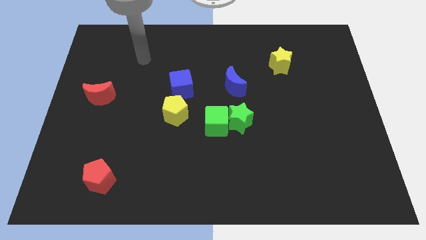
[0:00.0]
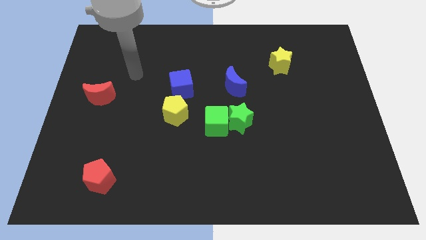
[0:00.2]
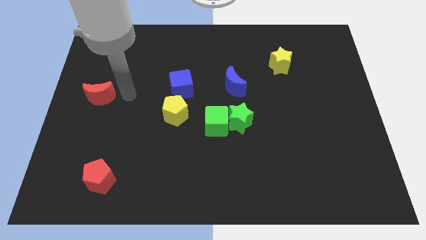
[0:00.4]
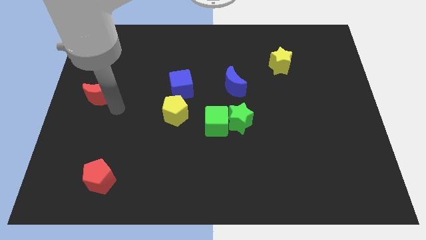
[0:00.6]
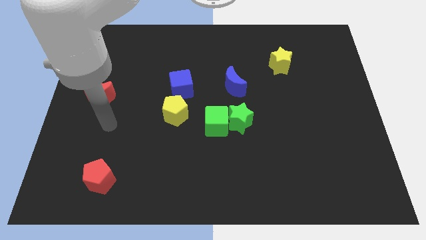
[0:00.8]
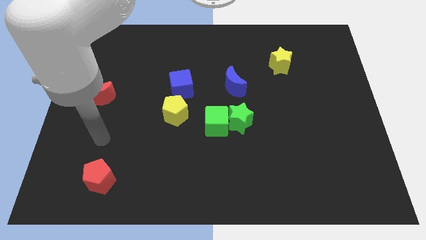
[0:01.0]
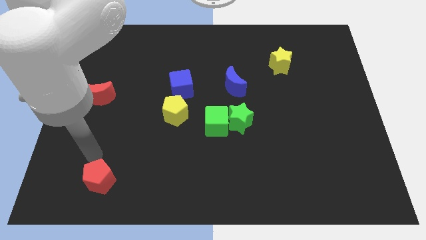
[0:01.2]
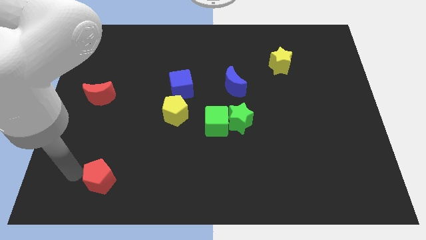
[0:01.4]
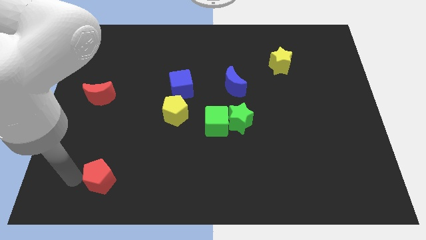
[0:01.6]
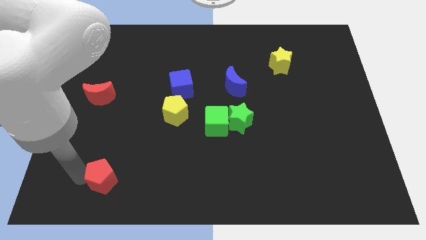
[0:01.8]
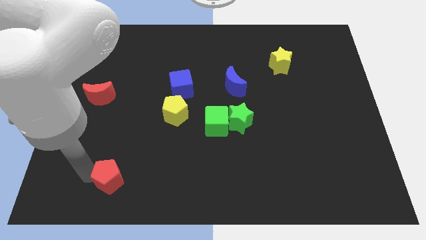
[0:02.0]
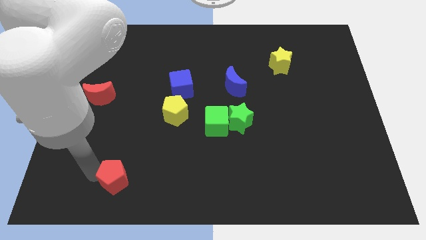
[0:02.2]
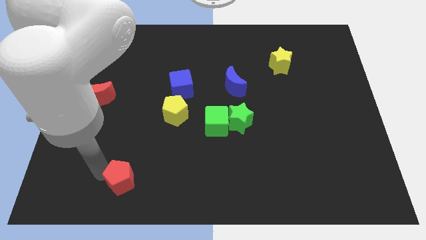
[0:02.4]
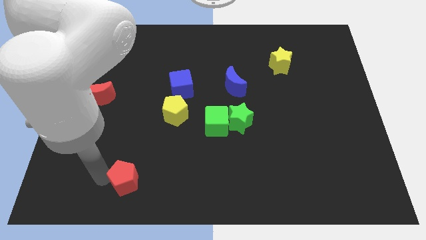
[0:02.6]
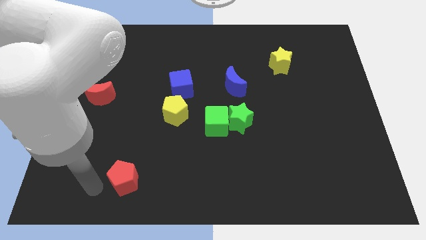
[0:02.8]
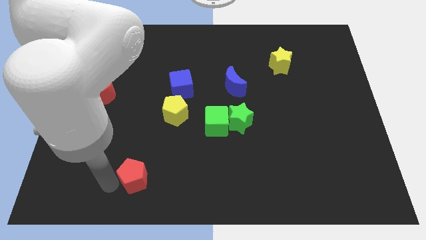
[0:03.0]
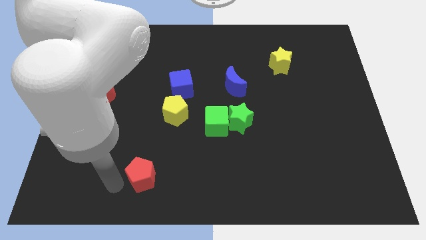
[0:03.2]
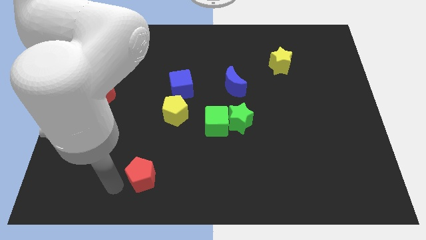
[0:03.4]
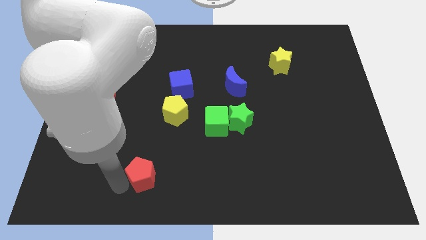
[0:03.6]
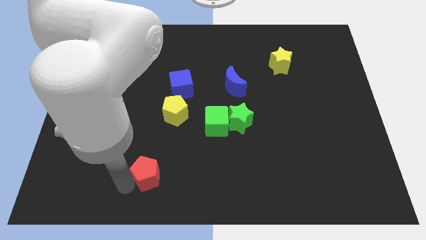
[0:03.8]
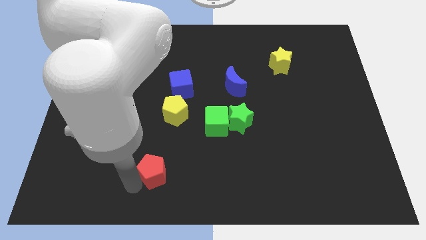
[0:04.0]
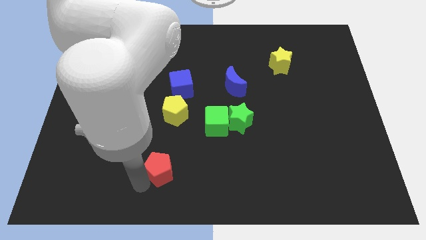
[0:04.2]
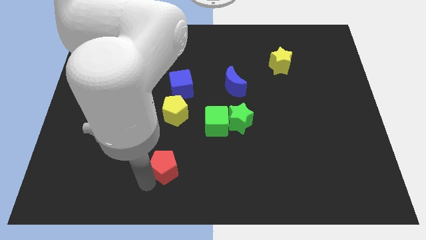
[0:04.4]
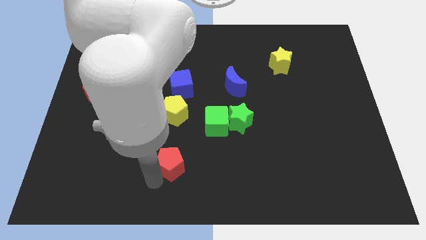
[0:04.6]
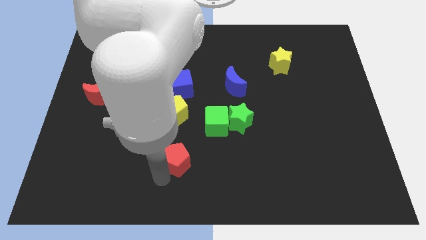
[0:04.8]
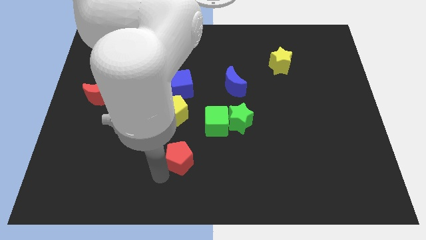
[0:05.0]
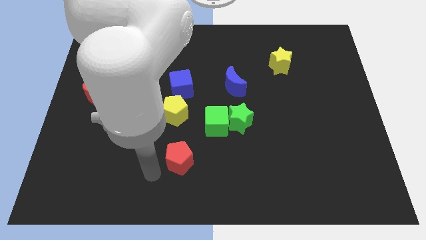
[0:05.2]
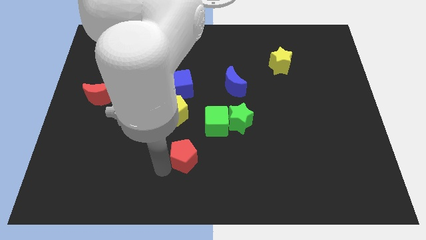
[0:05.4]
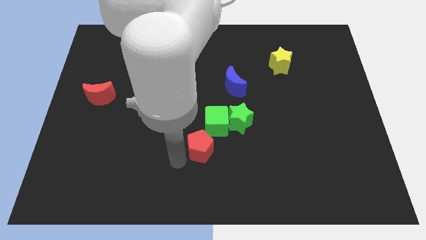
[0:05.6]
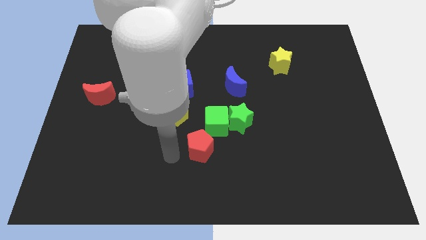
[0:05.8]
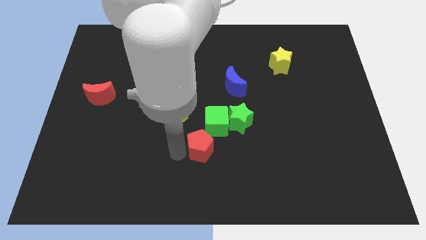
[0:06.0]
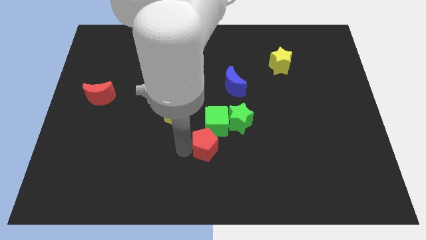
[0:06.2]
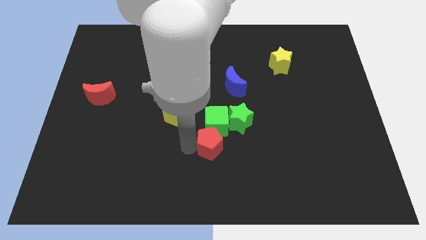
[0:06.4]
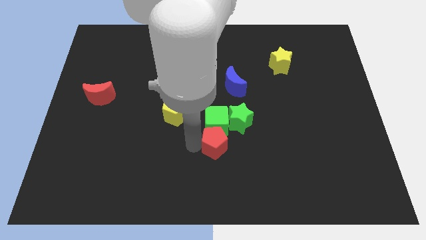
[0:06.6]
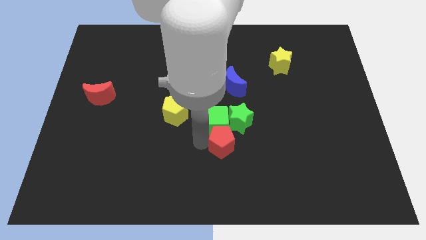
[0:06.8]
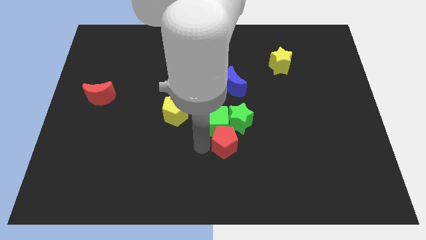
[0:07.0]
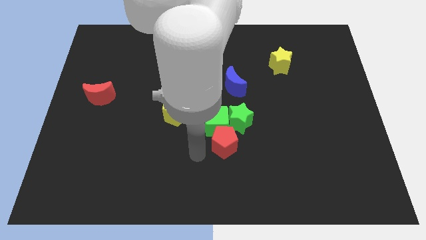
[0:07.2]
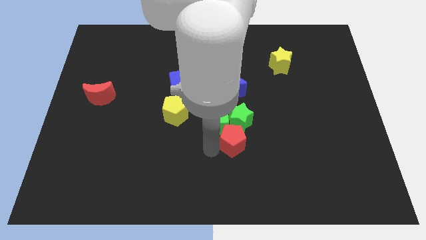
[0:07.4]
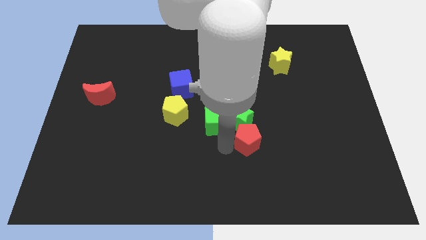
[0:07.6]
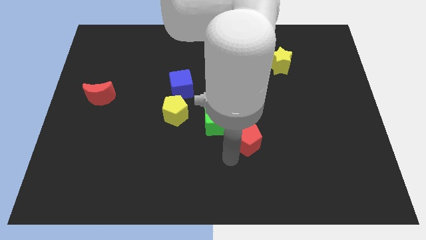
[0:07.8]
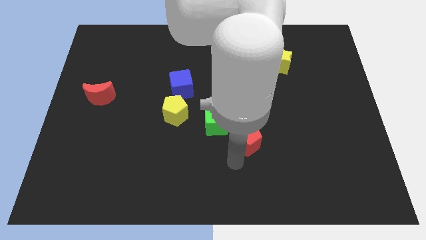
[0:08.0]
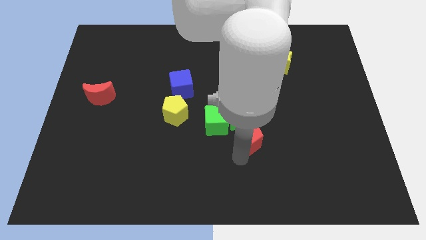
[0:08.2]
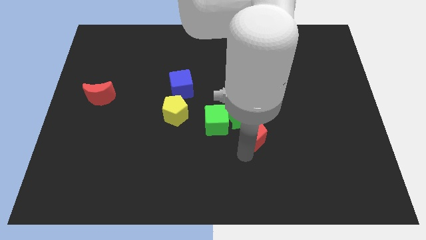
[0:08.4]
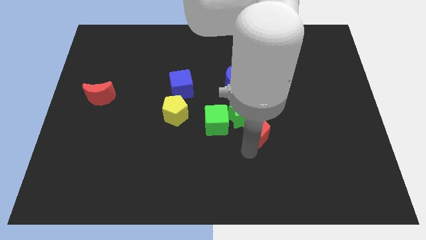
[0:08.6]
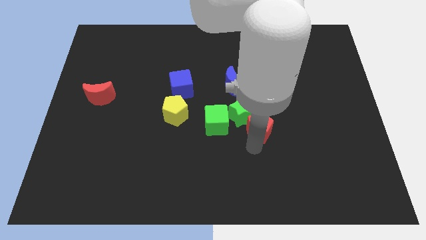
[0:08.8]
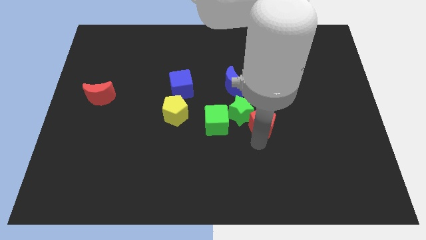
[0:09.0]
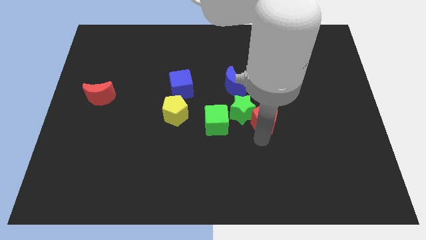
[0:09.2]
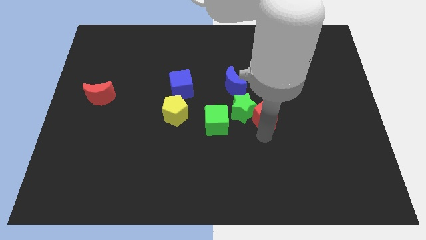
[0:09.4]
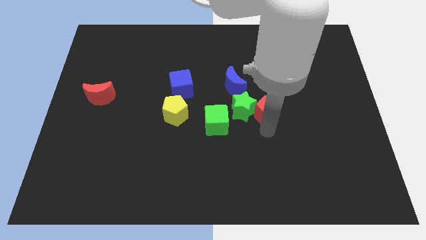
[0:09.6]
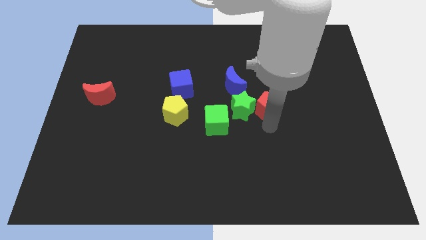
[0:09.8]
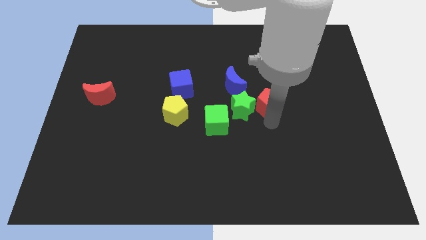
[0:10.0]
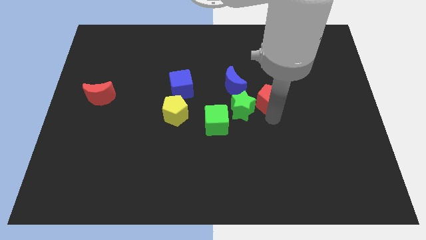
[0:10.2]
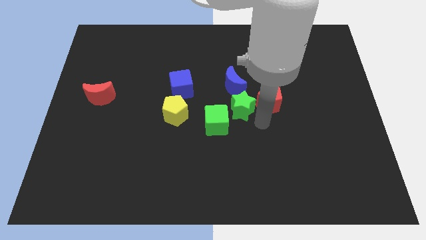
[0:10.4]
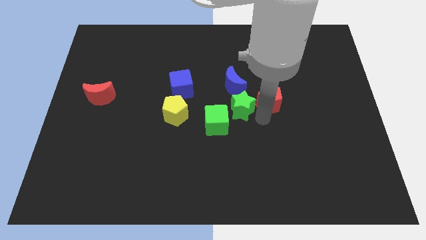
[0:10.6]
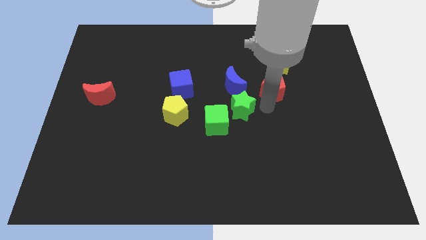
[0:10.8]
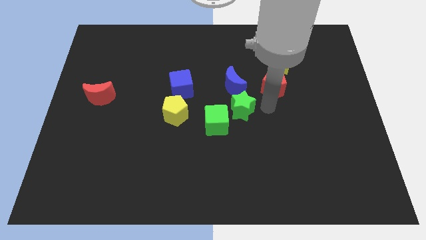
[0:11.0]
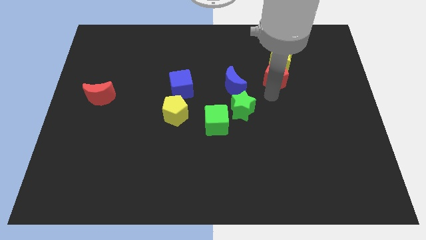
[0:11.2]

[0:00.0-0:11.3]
put the red pentagon close to the yellow star

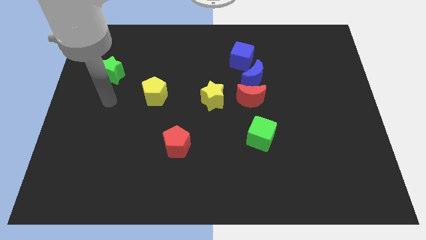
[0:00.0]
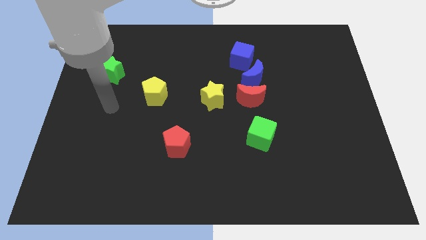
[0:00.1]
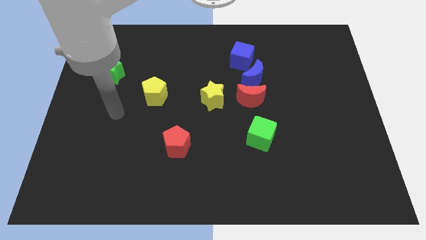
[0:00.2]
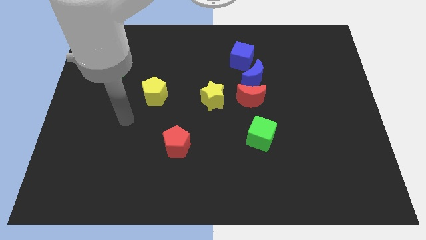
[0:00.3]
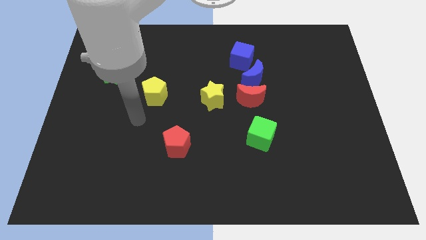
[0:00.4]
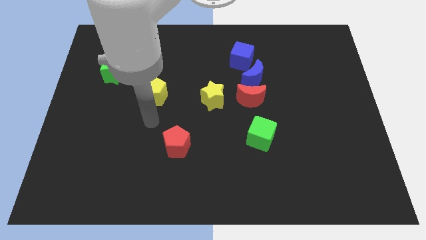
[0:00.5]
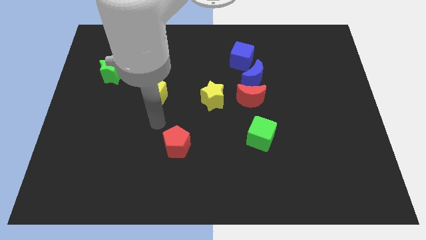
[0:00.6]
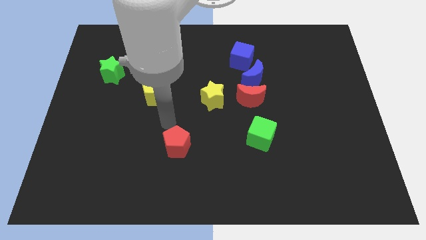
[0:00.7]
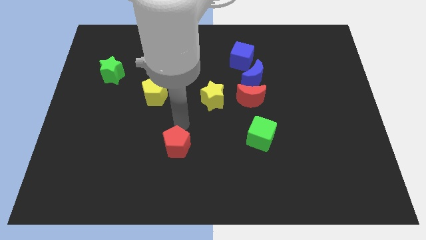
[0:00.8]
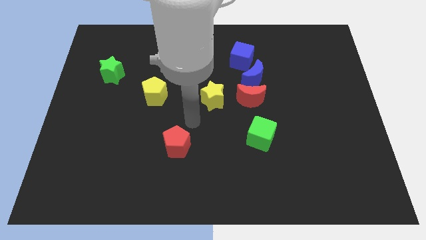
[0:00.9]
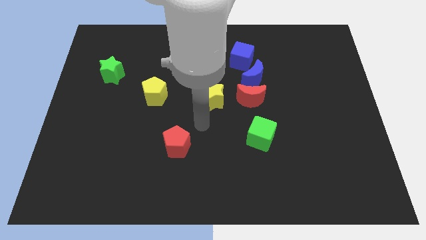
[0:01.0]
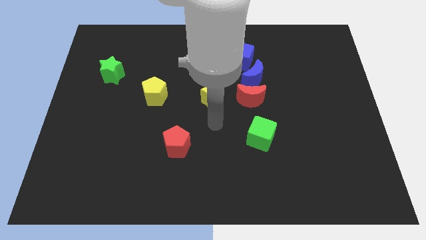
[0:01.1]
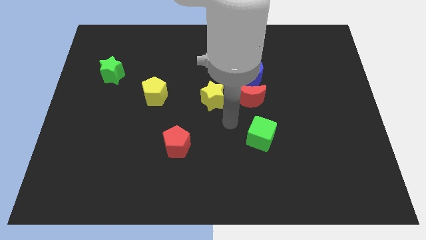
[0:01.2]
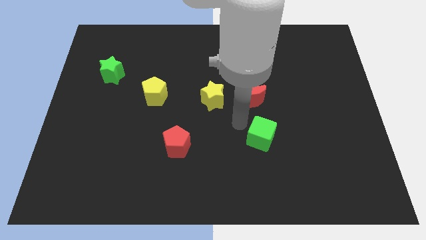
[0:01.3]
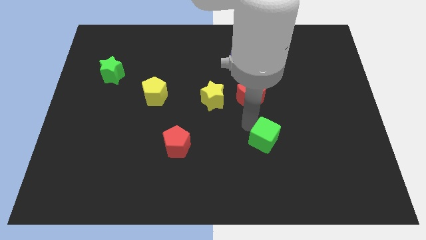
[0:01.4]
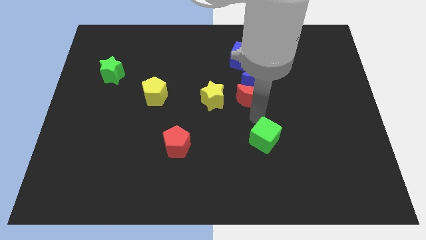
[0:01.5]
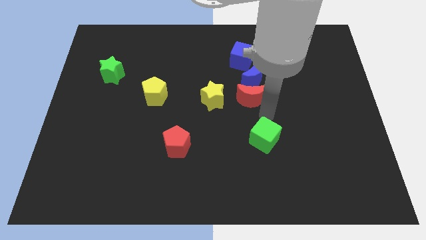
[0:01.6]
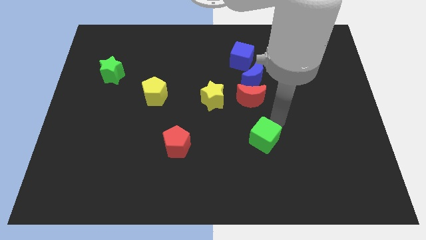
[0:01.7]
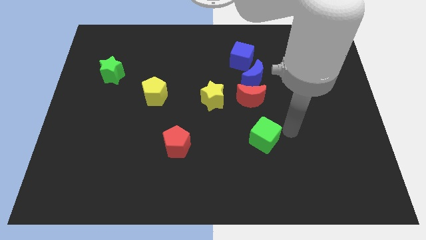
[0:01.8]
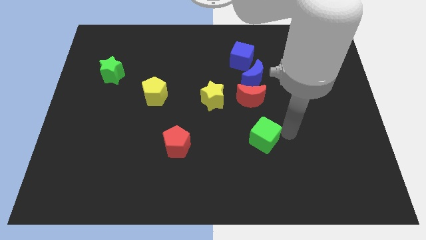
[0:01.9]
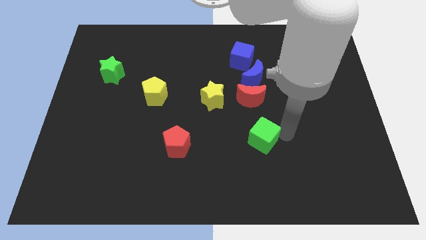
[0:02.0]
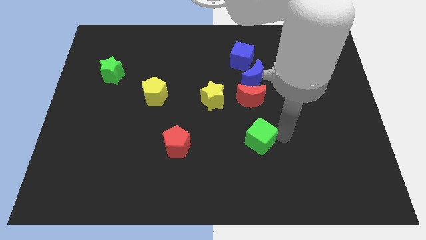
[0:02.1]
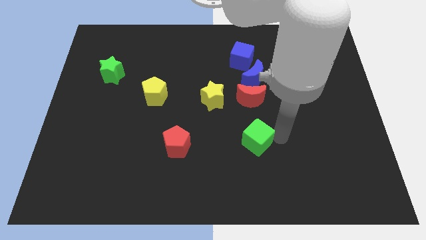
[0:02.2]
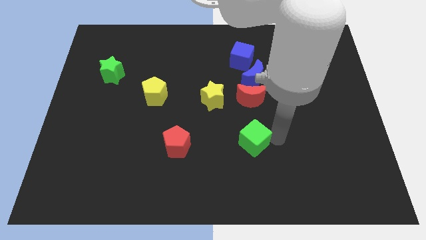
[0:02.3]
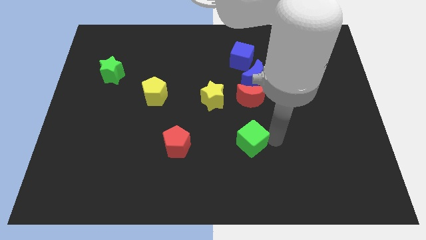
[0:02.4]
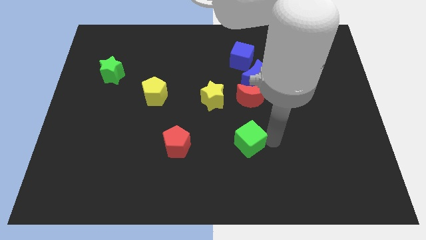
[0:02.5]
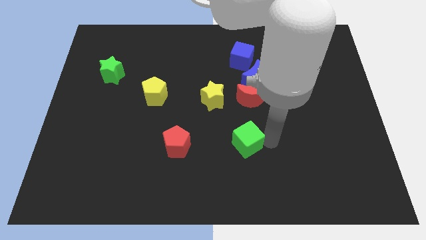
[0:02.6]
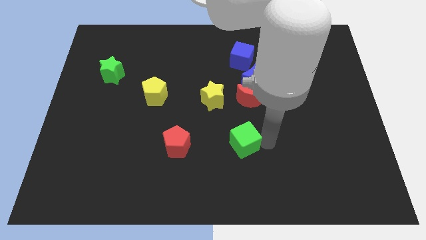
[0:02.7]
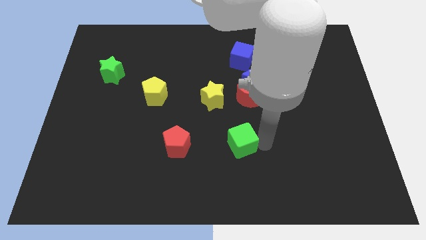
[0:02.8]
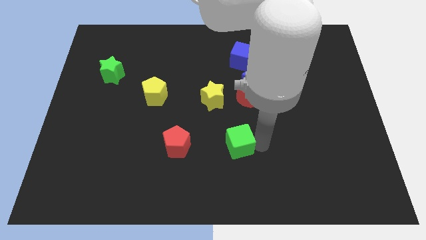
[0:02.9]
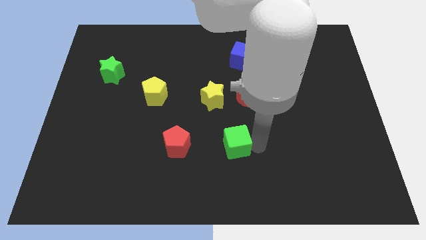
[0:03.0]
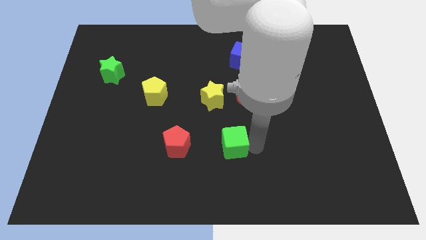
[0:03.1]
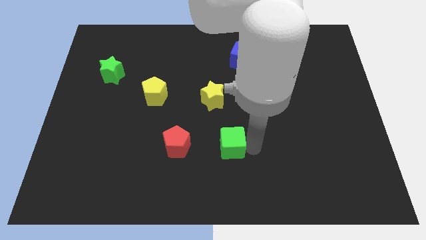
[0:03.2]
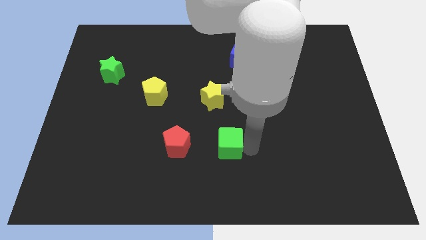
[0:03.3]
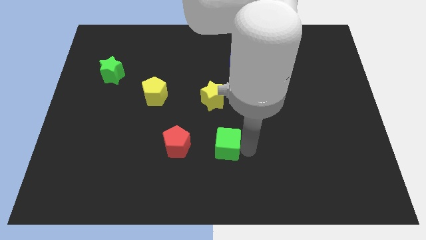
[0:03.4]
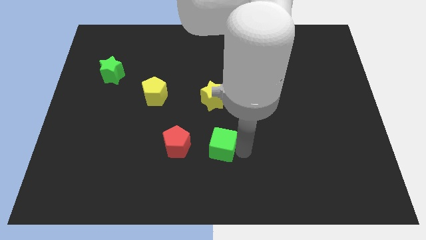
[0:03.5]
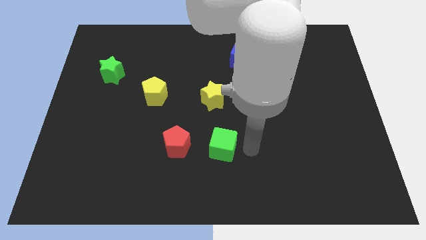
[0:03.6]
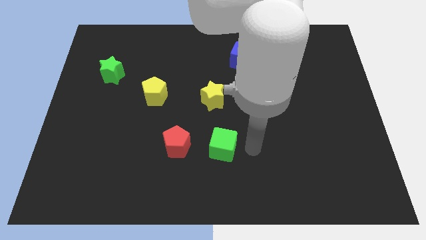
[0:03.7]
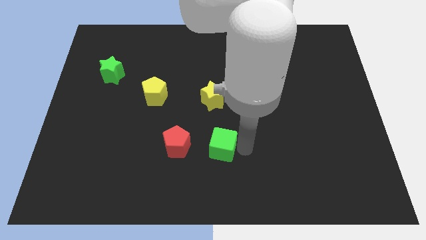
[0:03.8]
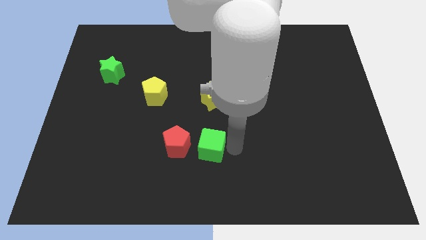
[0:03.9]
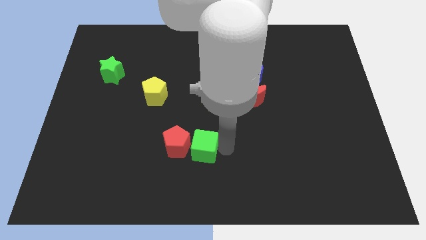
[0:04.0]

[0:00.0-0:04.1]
put the green cube next to the red pentagon
